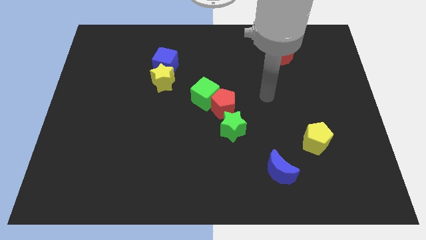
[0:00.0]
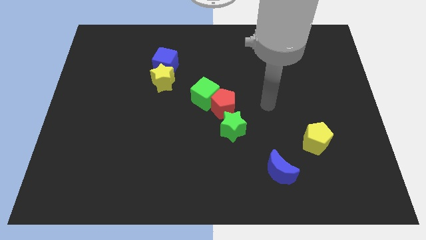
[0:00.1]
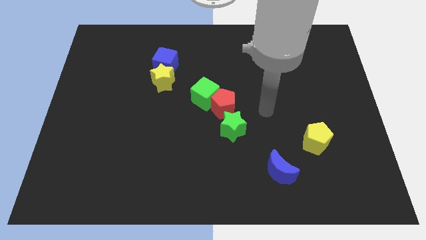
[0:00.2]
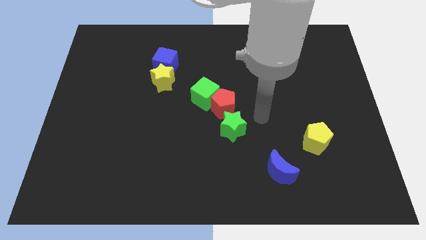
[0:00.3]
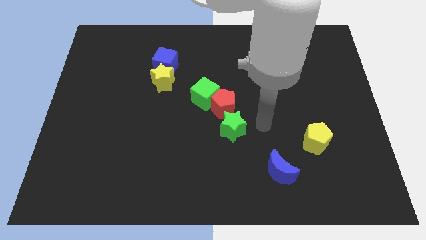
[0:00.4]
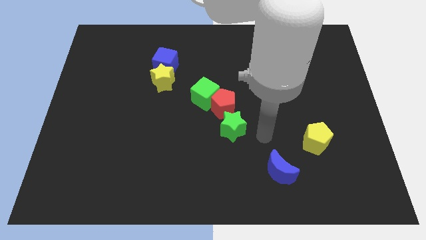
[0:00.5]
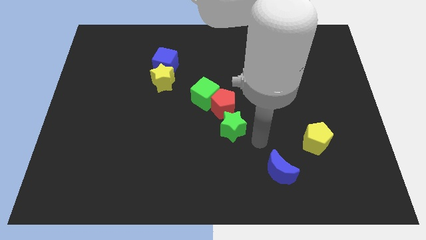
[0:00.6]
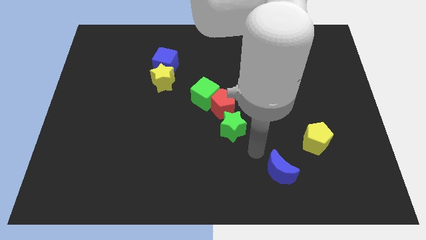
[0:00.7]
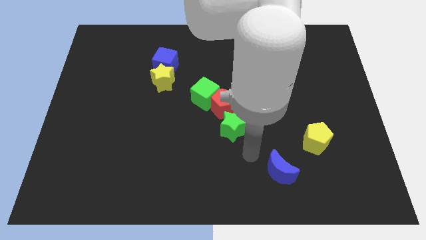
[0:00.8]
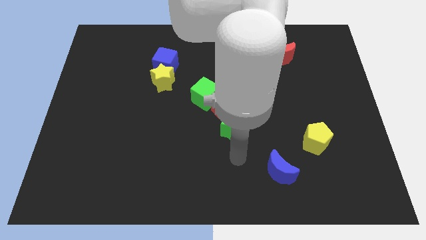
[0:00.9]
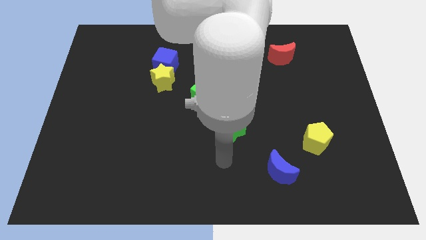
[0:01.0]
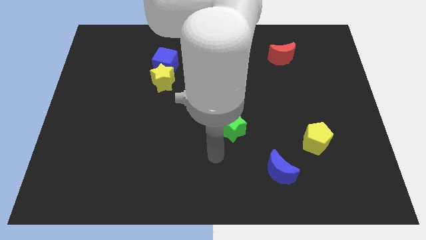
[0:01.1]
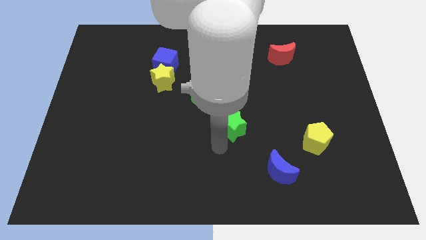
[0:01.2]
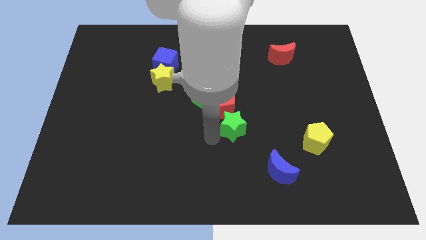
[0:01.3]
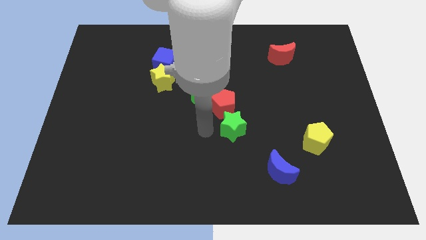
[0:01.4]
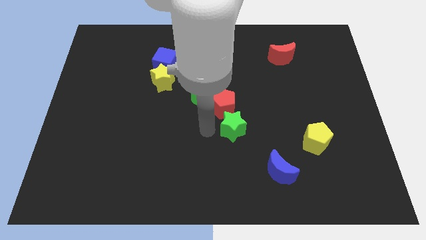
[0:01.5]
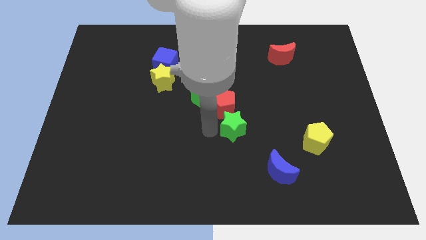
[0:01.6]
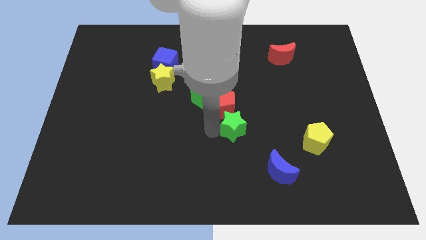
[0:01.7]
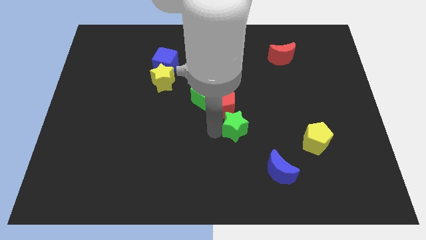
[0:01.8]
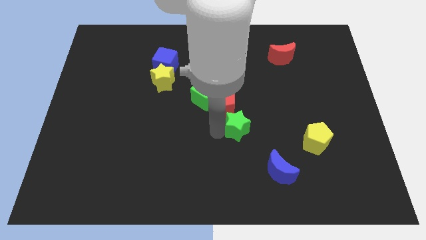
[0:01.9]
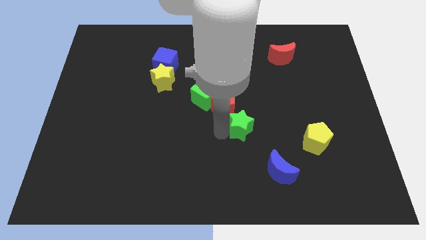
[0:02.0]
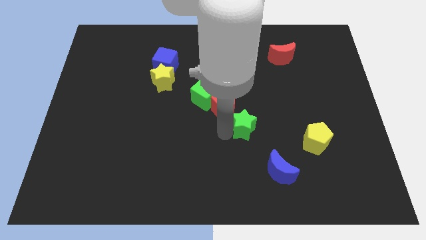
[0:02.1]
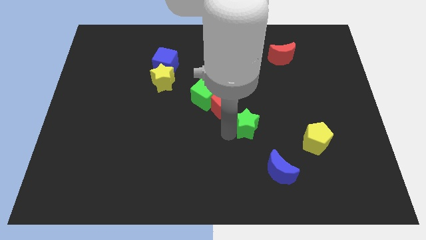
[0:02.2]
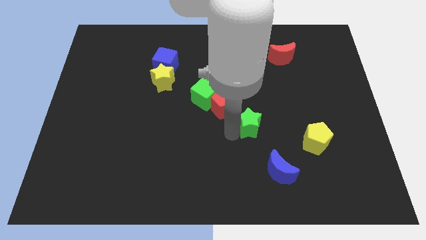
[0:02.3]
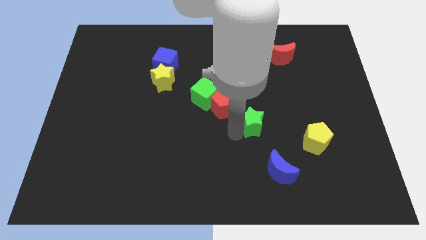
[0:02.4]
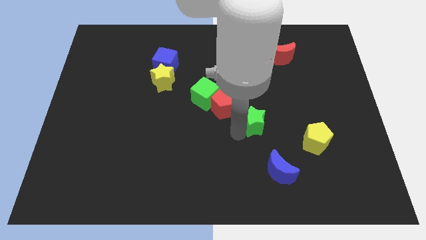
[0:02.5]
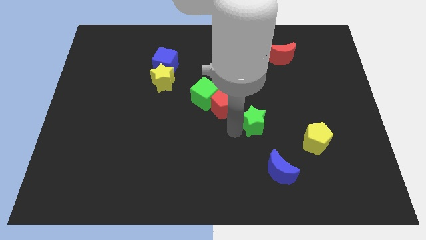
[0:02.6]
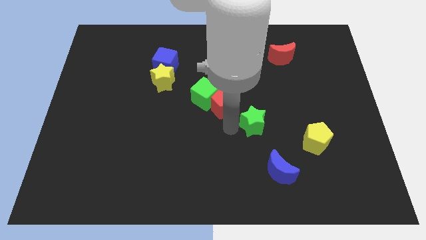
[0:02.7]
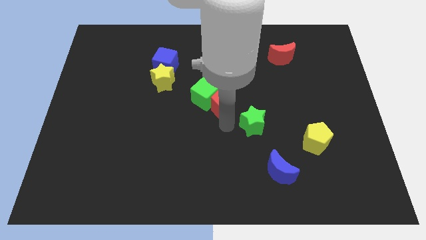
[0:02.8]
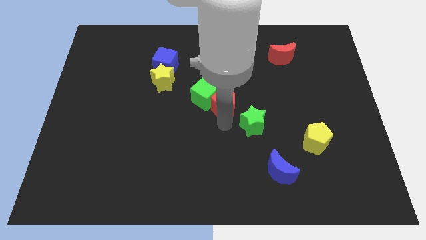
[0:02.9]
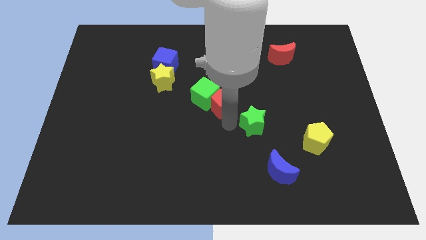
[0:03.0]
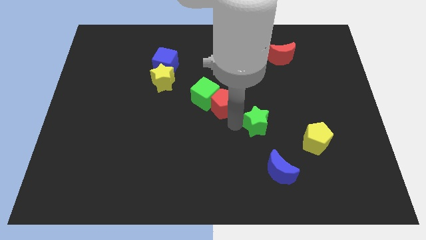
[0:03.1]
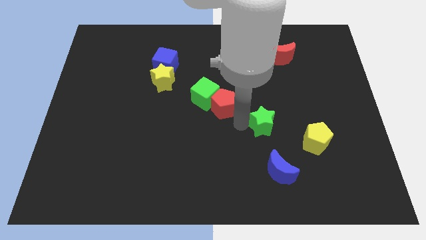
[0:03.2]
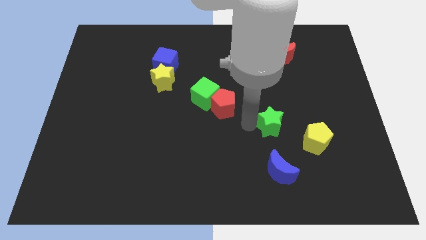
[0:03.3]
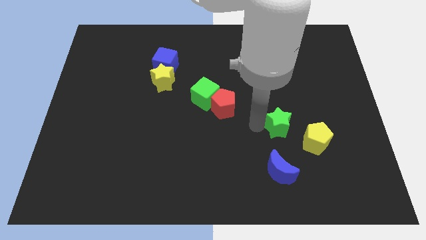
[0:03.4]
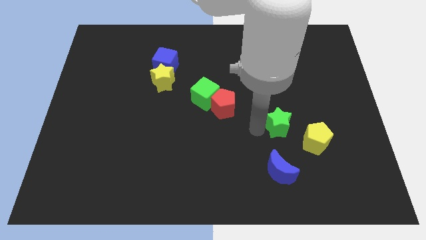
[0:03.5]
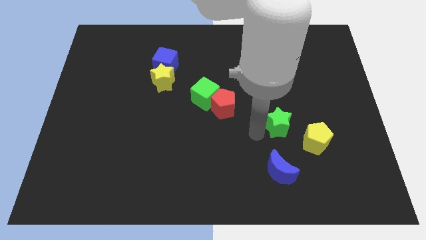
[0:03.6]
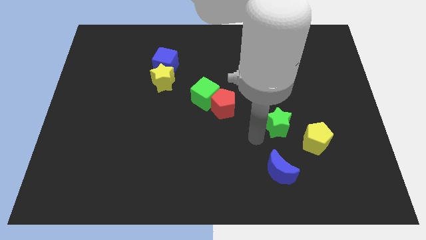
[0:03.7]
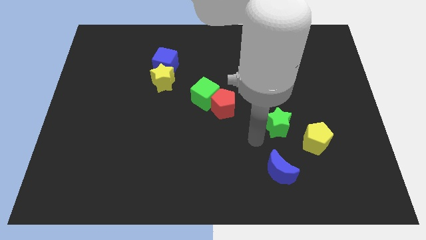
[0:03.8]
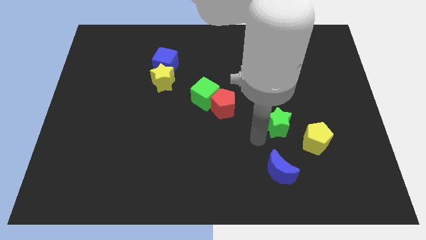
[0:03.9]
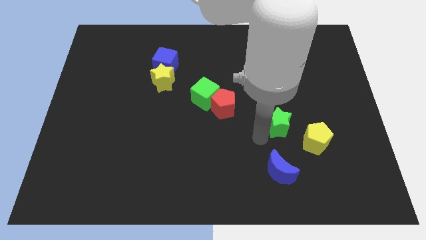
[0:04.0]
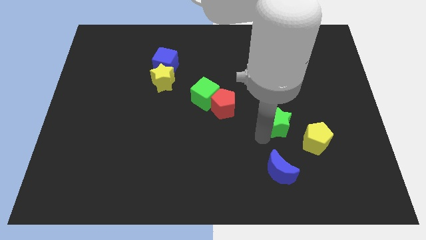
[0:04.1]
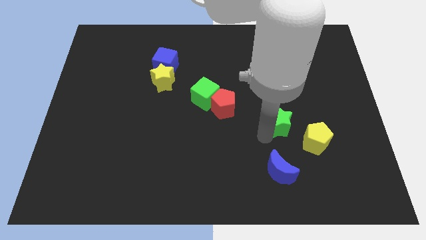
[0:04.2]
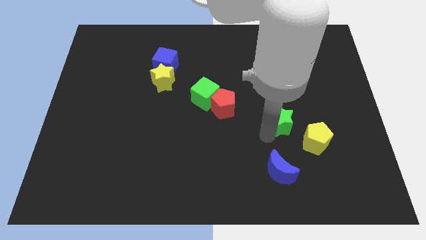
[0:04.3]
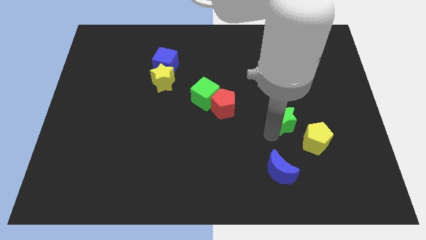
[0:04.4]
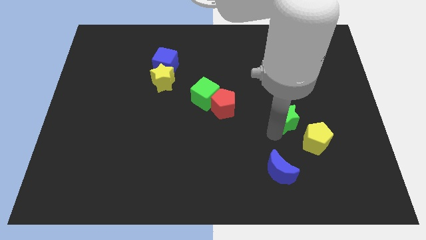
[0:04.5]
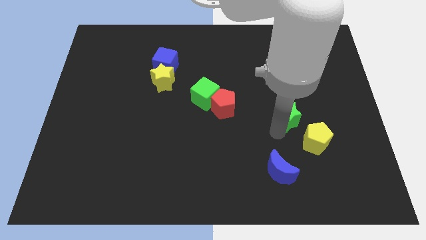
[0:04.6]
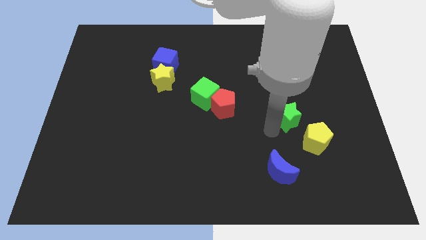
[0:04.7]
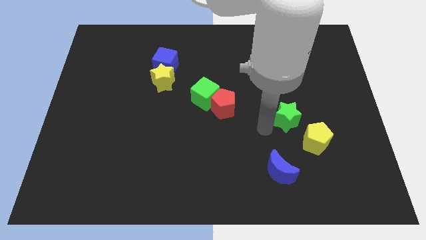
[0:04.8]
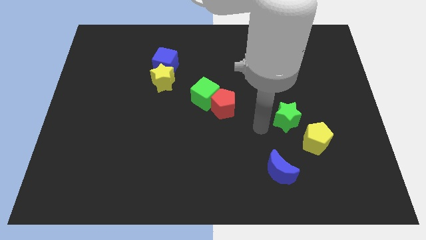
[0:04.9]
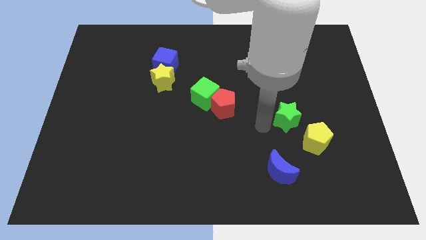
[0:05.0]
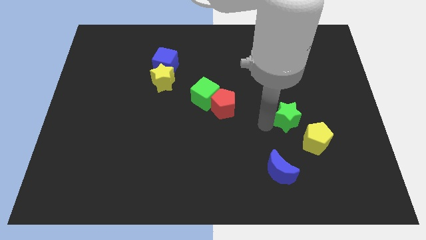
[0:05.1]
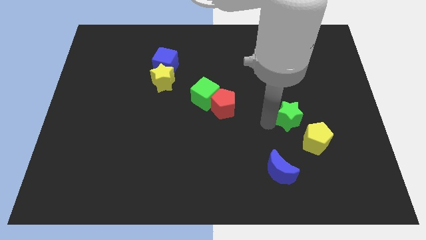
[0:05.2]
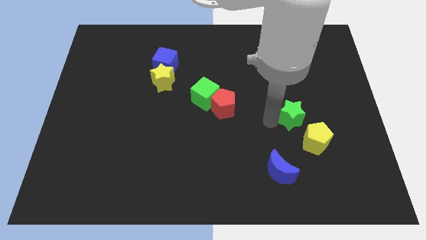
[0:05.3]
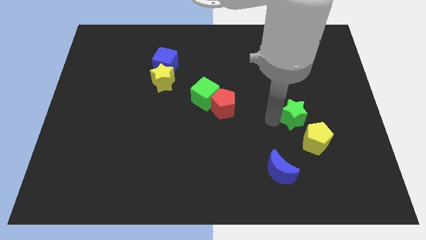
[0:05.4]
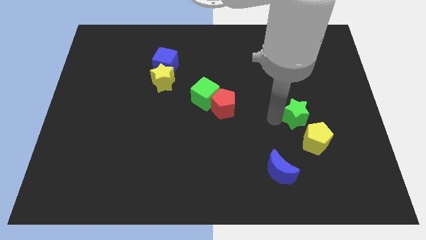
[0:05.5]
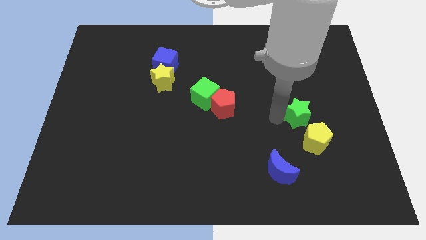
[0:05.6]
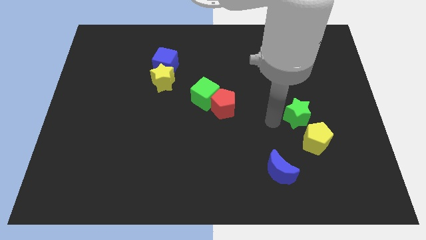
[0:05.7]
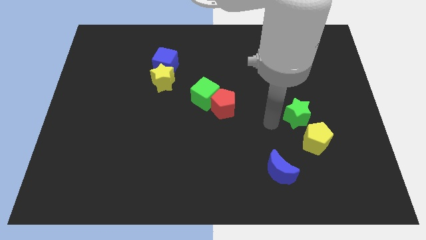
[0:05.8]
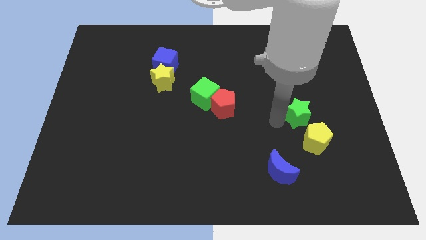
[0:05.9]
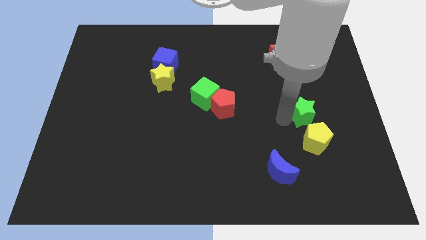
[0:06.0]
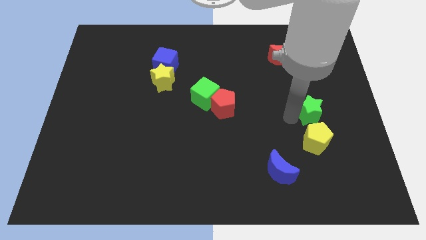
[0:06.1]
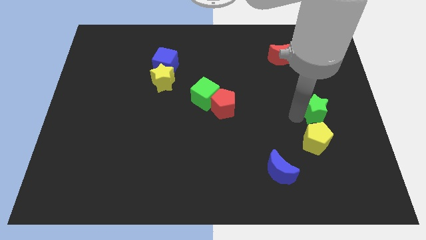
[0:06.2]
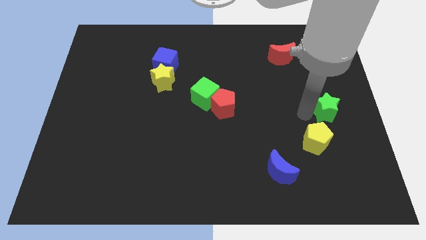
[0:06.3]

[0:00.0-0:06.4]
put the green star to the right side

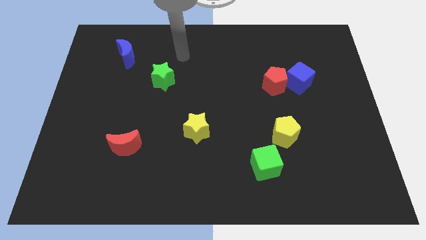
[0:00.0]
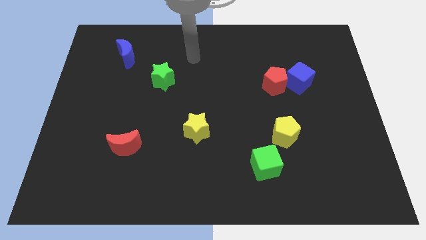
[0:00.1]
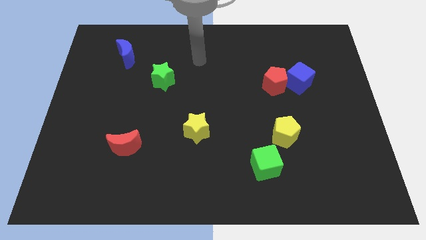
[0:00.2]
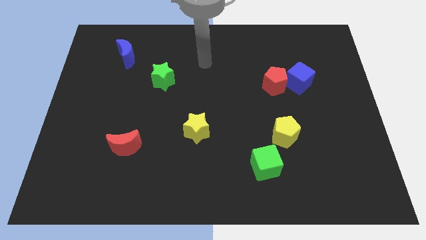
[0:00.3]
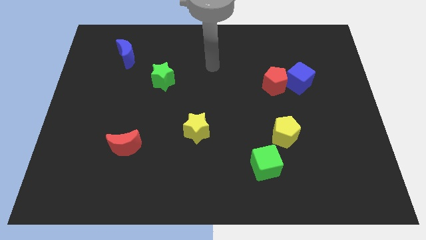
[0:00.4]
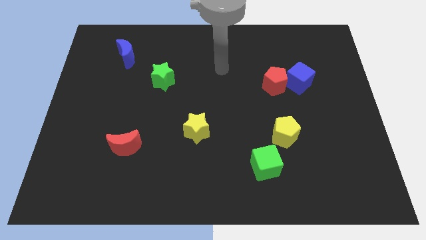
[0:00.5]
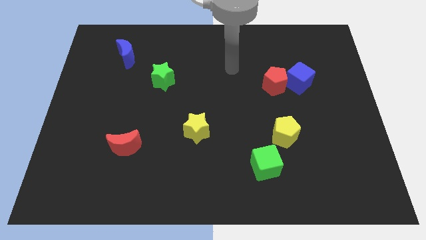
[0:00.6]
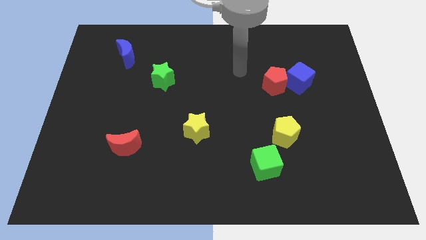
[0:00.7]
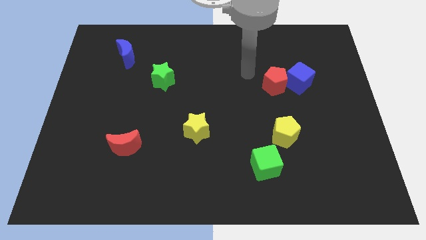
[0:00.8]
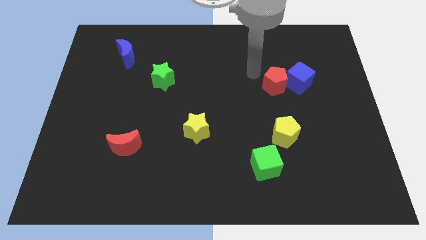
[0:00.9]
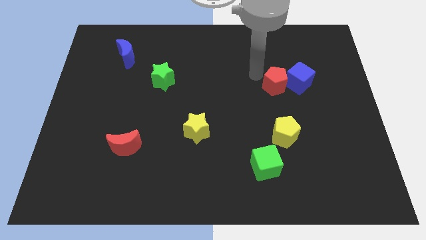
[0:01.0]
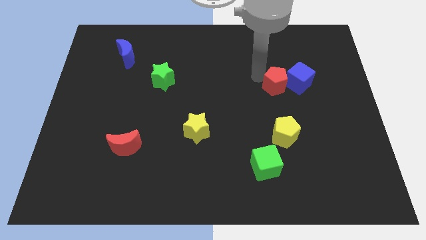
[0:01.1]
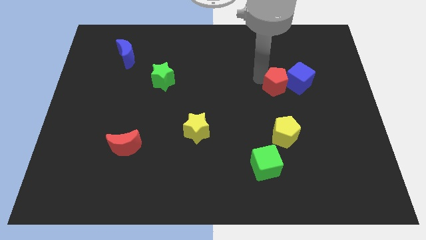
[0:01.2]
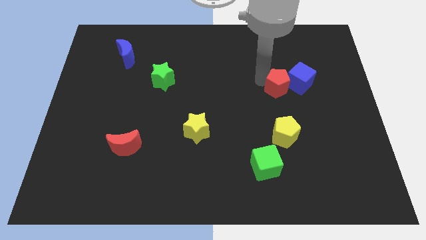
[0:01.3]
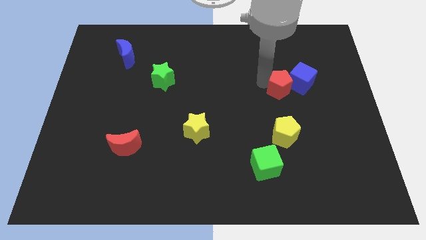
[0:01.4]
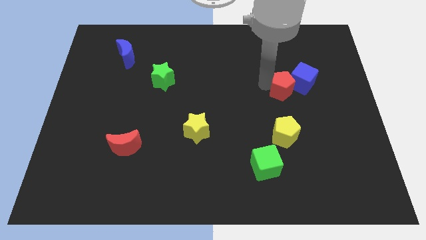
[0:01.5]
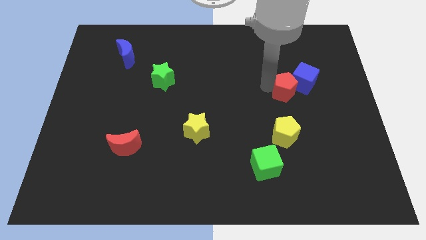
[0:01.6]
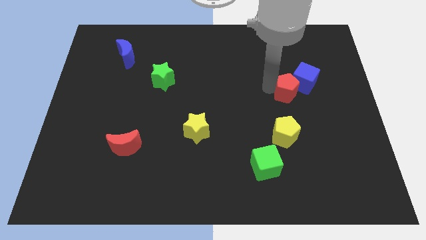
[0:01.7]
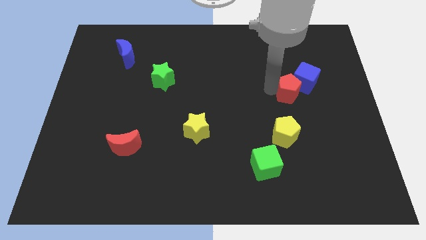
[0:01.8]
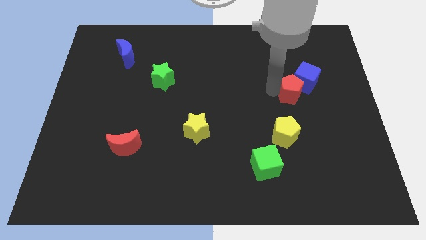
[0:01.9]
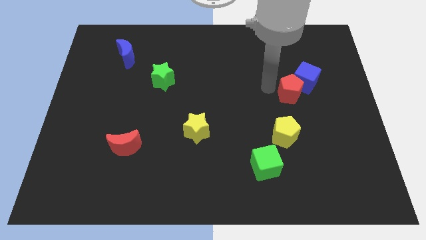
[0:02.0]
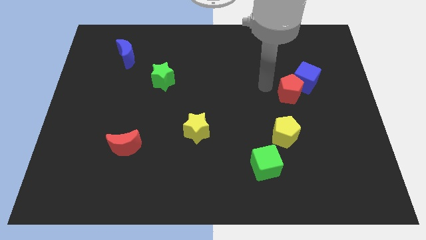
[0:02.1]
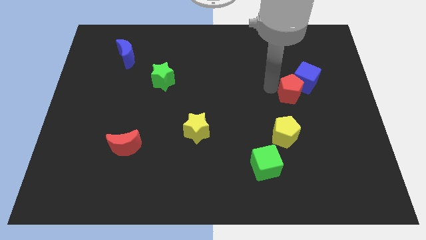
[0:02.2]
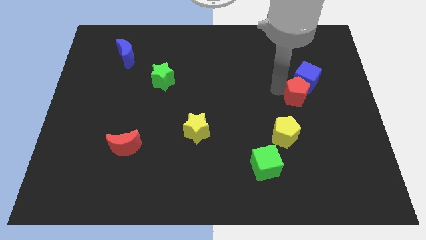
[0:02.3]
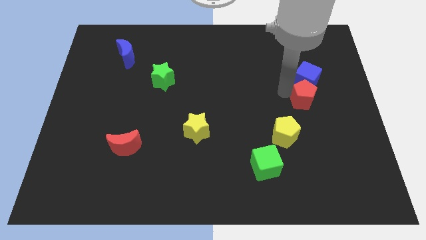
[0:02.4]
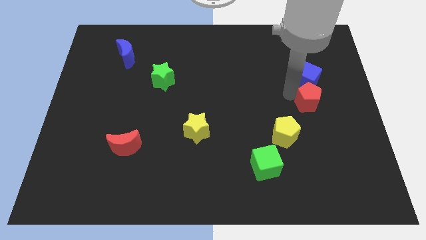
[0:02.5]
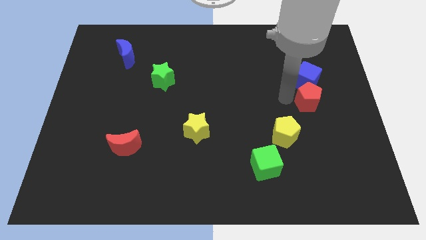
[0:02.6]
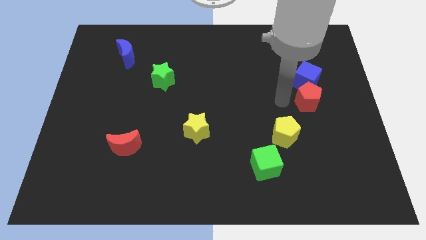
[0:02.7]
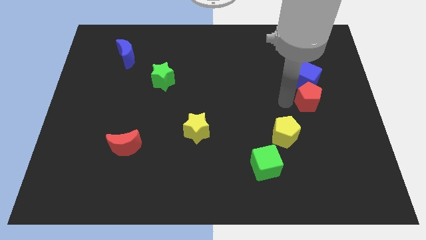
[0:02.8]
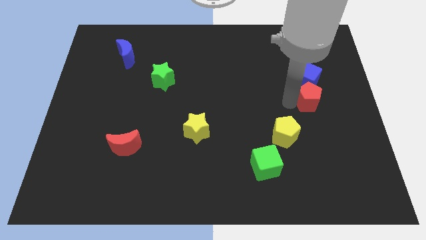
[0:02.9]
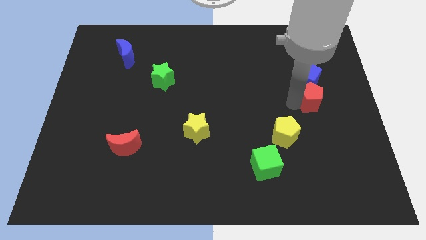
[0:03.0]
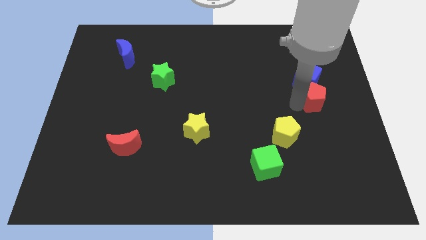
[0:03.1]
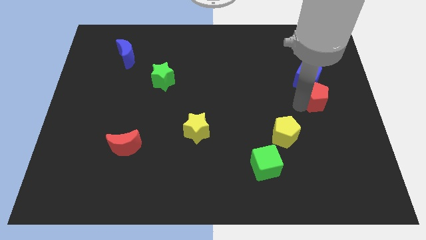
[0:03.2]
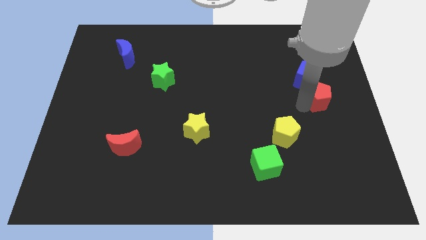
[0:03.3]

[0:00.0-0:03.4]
push the red pentagon to the center right
